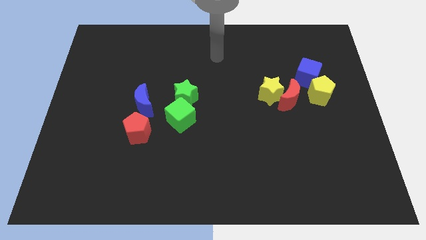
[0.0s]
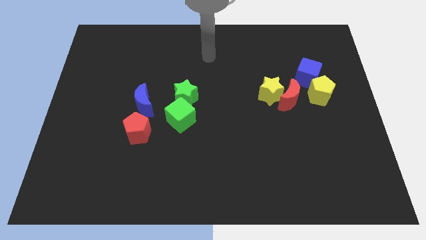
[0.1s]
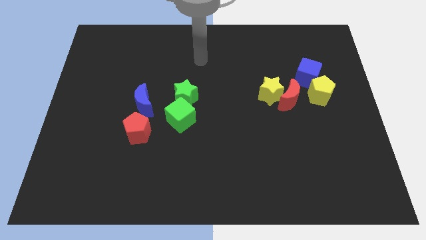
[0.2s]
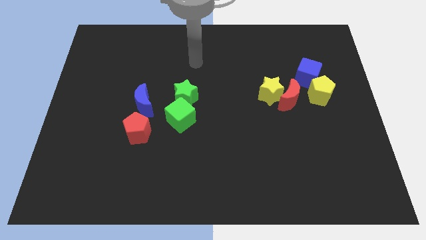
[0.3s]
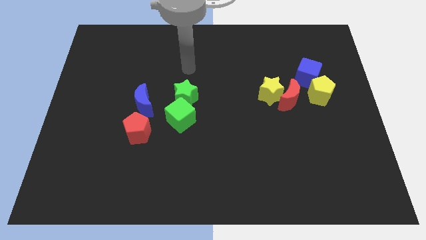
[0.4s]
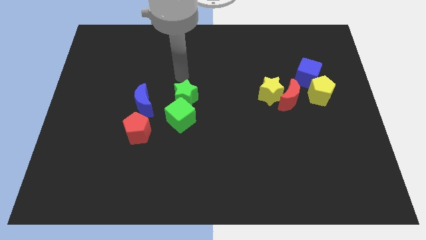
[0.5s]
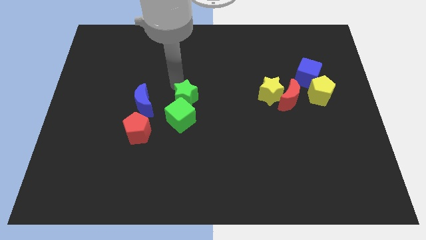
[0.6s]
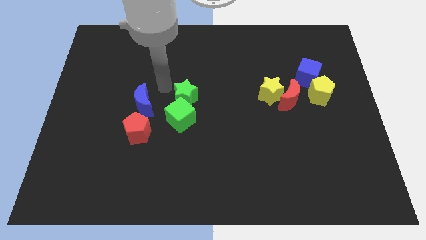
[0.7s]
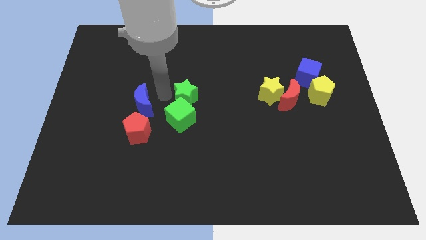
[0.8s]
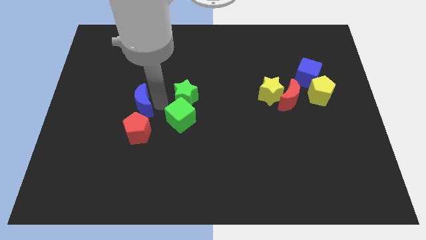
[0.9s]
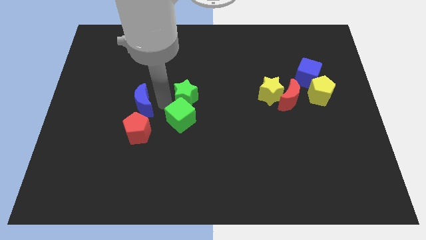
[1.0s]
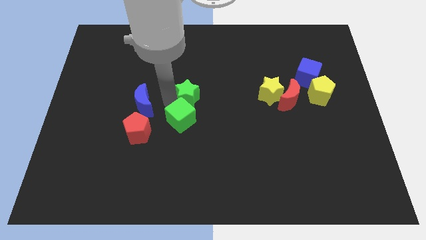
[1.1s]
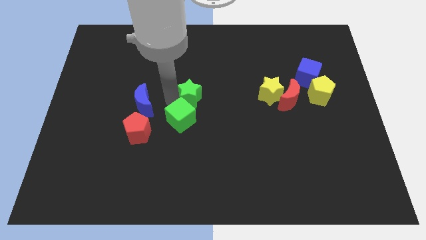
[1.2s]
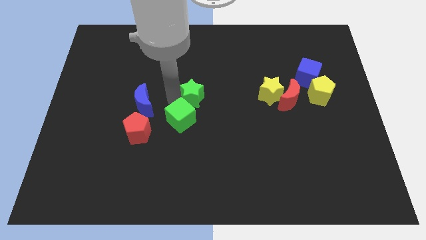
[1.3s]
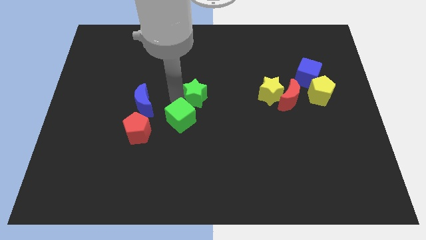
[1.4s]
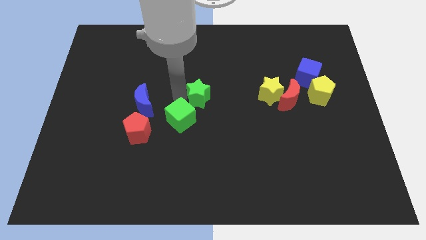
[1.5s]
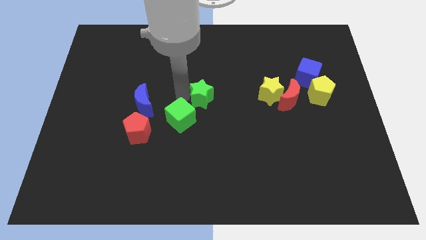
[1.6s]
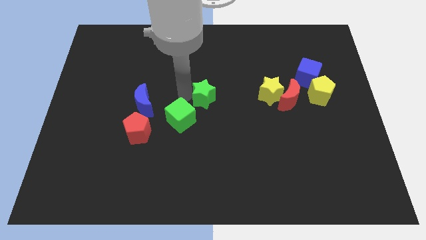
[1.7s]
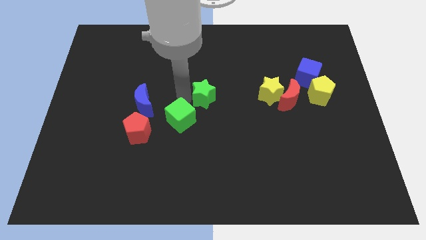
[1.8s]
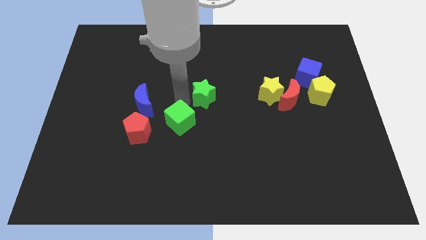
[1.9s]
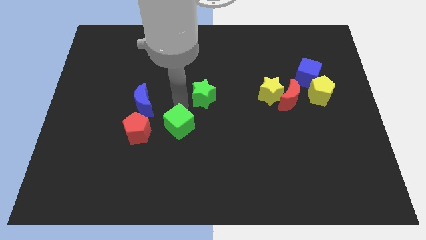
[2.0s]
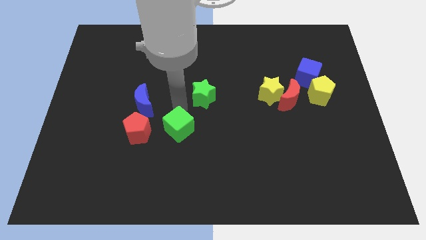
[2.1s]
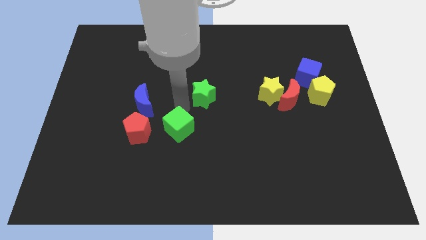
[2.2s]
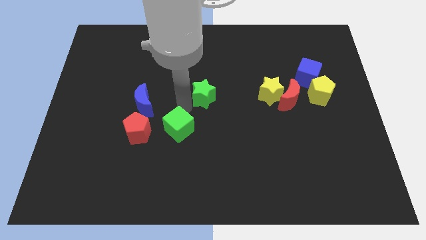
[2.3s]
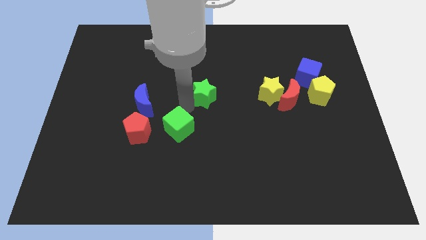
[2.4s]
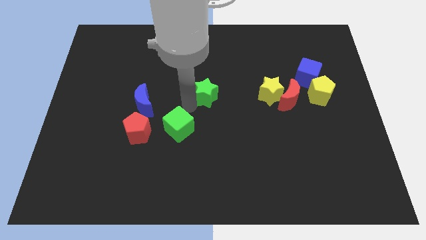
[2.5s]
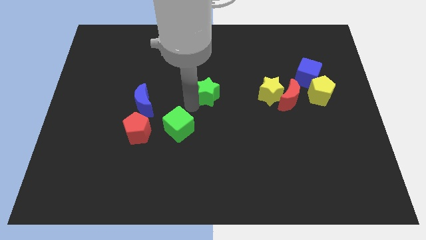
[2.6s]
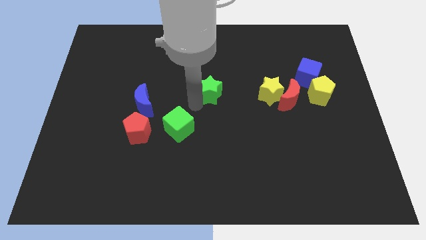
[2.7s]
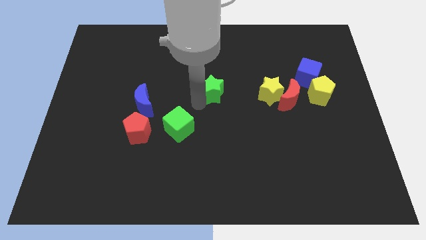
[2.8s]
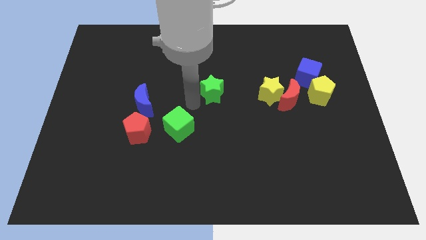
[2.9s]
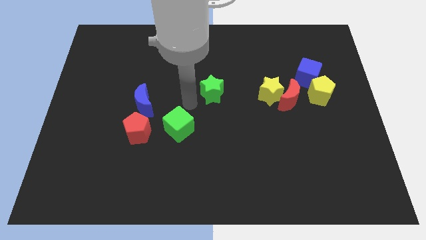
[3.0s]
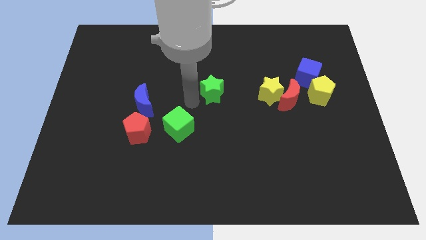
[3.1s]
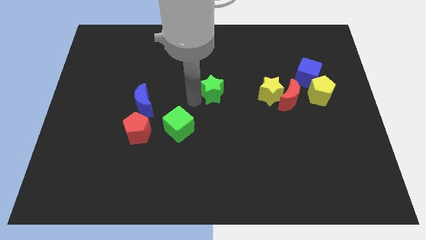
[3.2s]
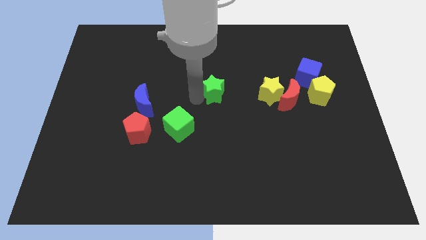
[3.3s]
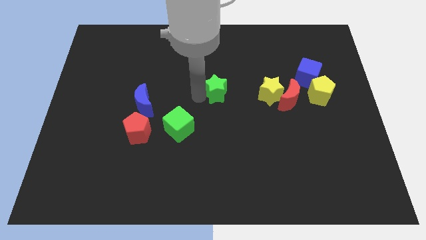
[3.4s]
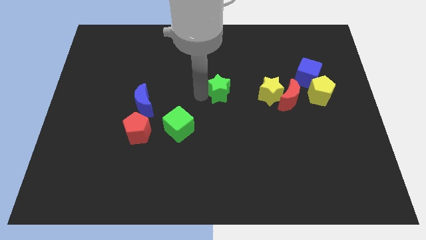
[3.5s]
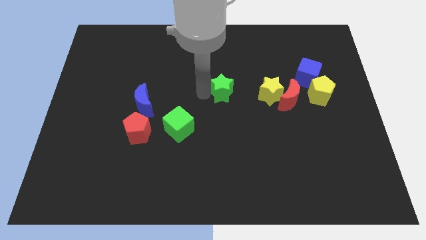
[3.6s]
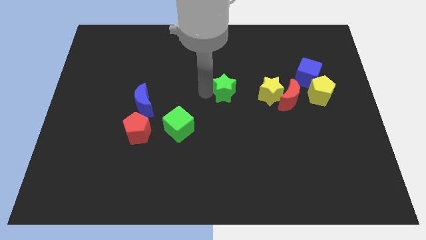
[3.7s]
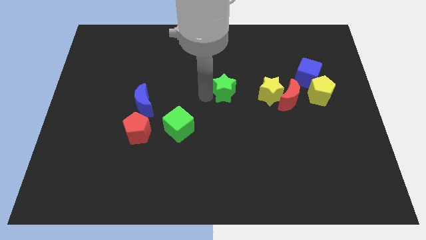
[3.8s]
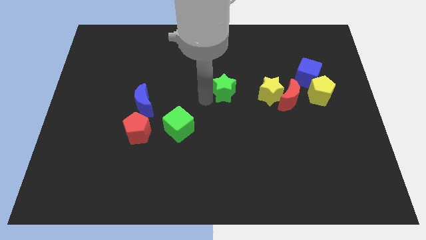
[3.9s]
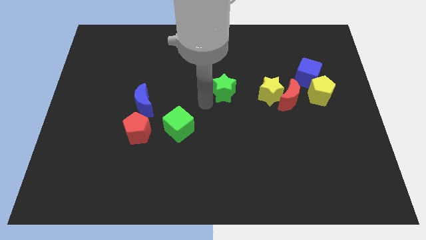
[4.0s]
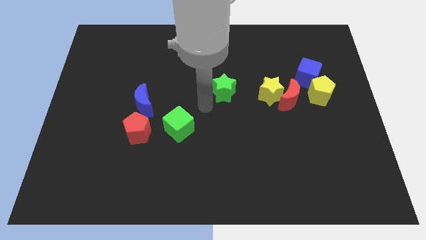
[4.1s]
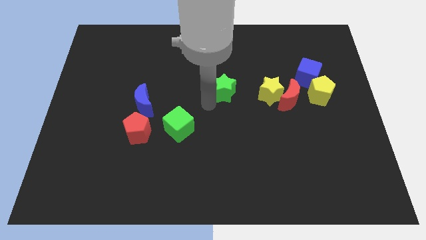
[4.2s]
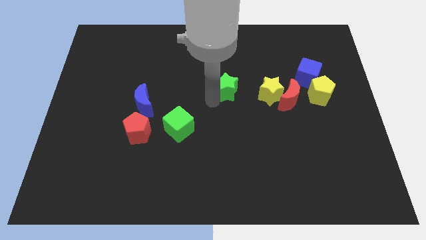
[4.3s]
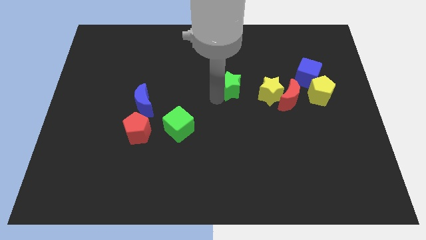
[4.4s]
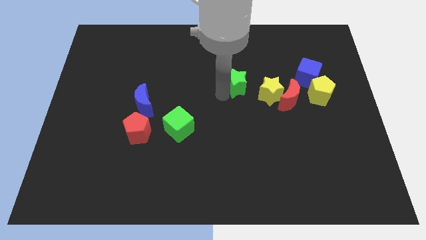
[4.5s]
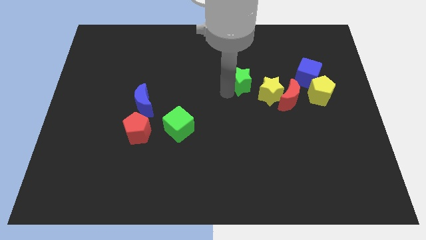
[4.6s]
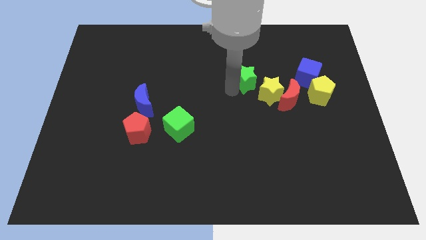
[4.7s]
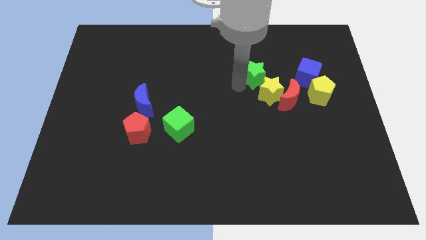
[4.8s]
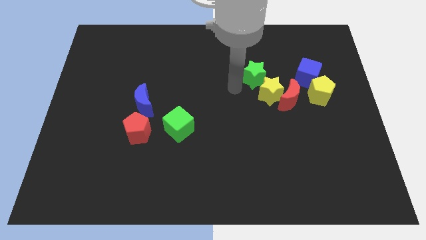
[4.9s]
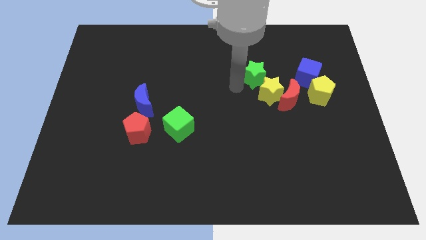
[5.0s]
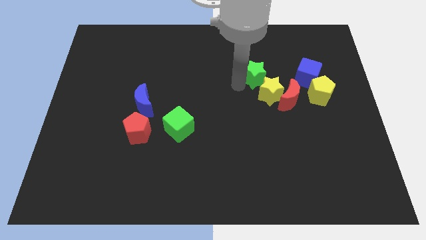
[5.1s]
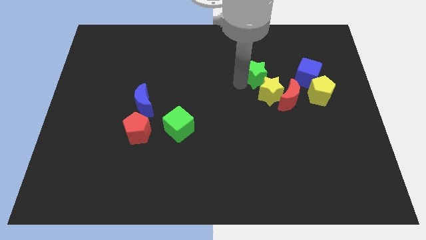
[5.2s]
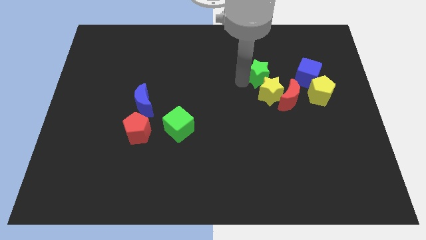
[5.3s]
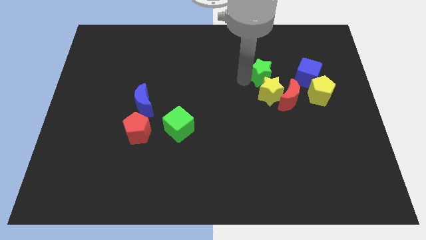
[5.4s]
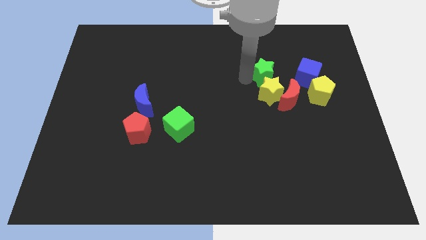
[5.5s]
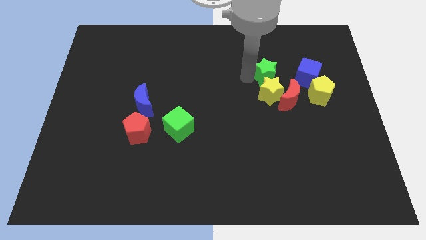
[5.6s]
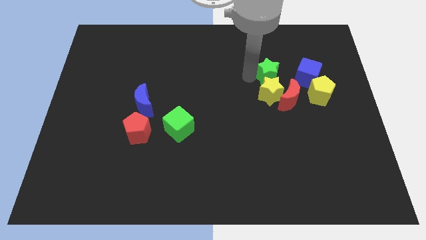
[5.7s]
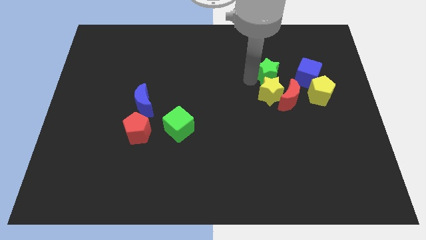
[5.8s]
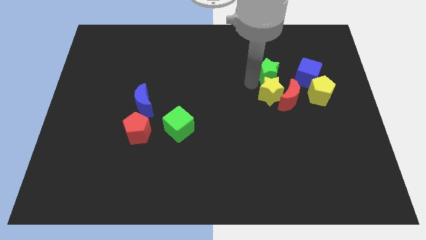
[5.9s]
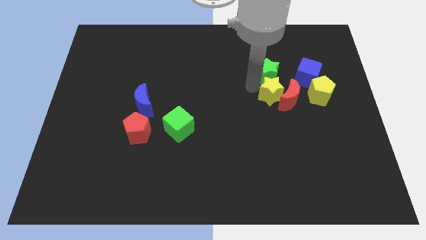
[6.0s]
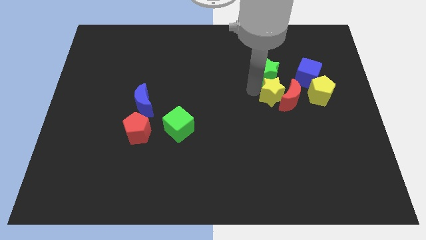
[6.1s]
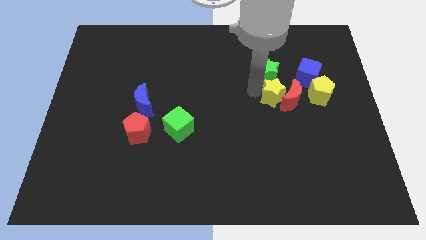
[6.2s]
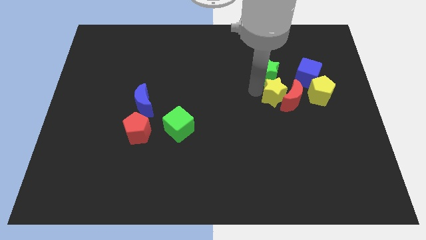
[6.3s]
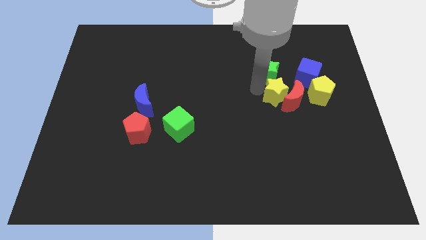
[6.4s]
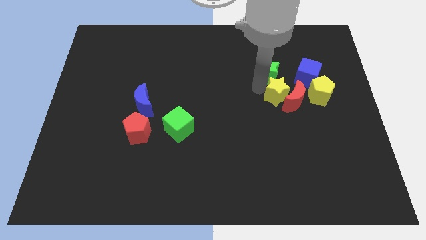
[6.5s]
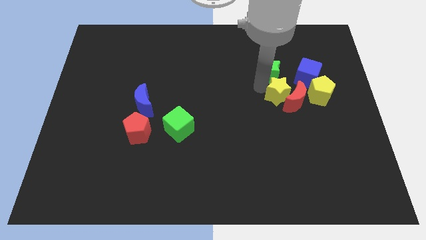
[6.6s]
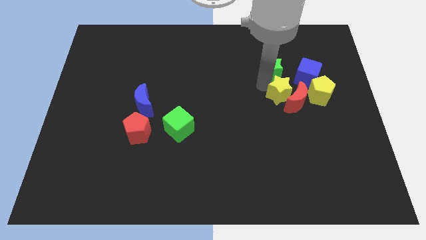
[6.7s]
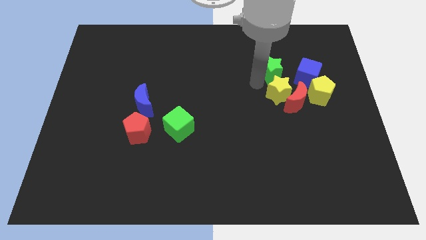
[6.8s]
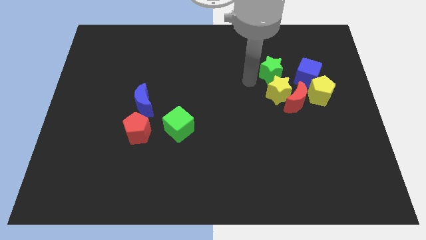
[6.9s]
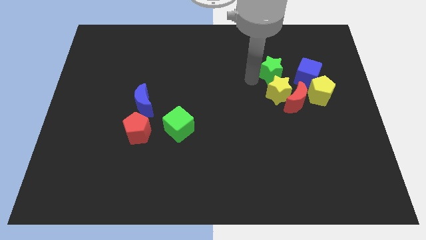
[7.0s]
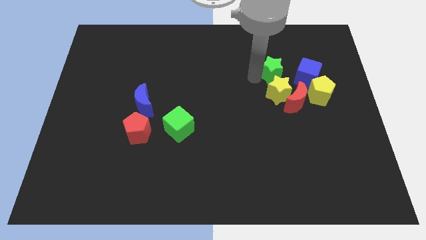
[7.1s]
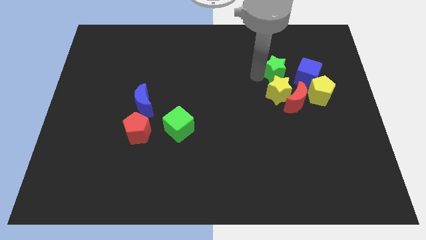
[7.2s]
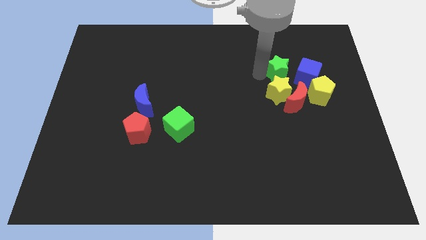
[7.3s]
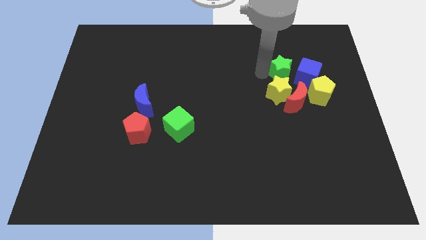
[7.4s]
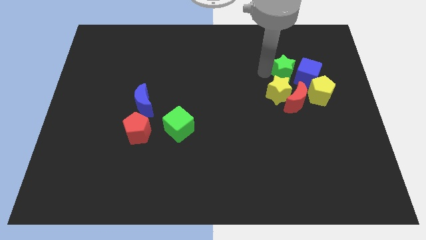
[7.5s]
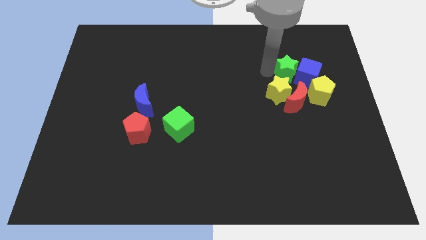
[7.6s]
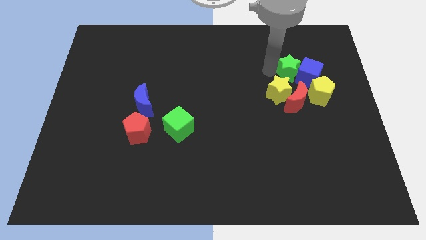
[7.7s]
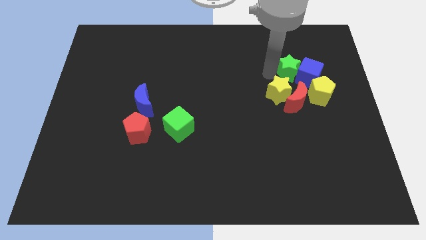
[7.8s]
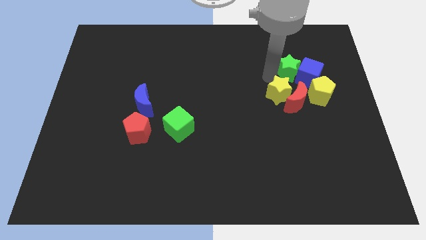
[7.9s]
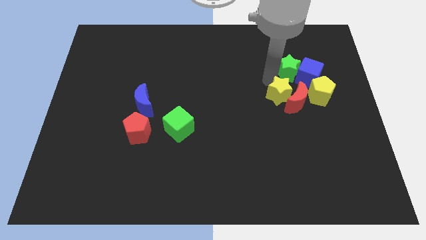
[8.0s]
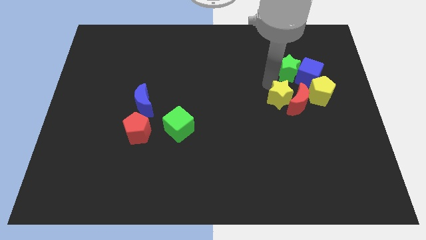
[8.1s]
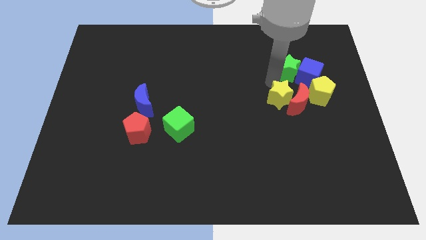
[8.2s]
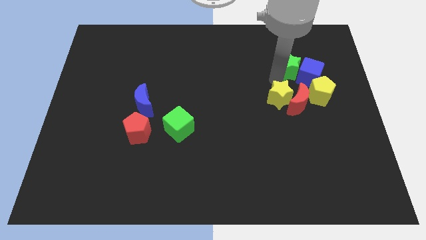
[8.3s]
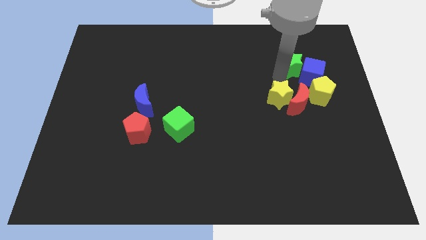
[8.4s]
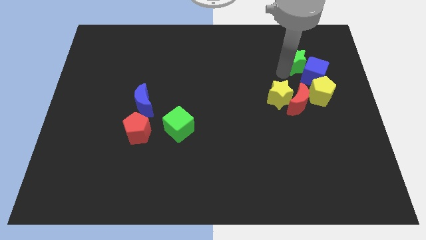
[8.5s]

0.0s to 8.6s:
move the green star to the top of the yellow pentagon
